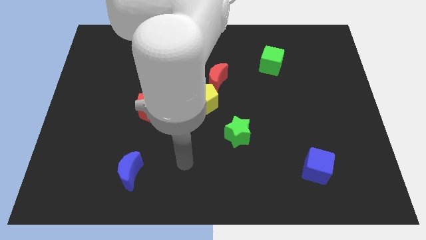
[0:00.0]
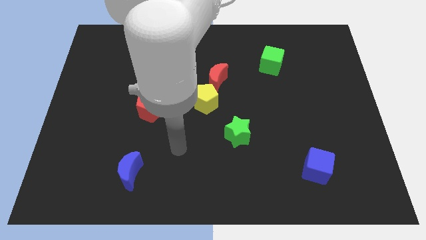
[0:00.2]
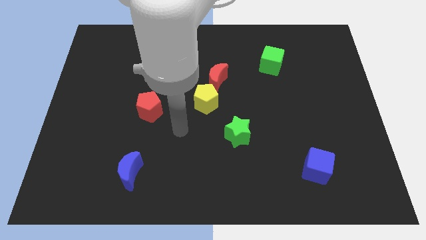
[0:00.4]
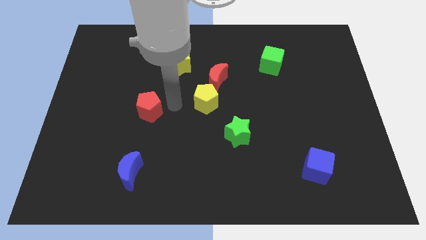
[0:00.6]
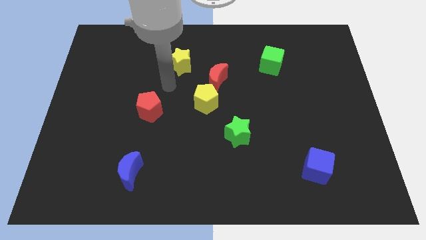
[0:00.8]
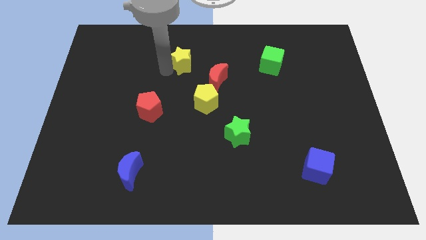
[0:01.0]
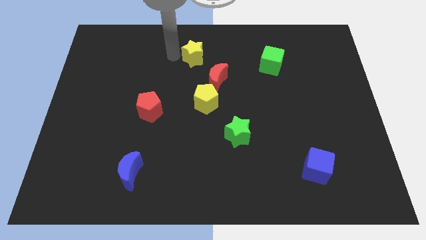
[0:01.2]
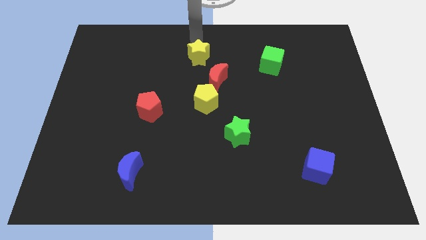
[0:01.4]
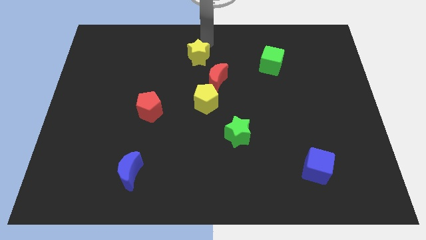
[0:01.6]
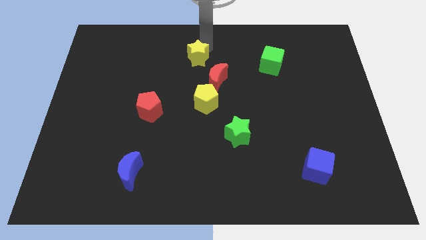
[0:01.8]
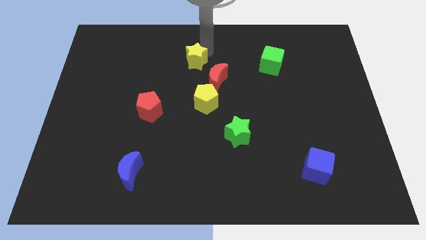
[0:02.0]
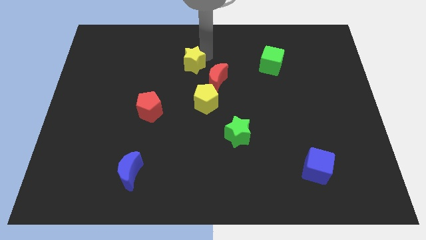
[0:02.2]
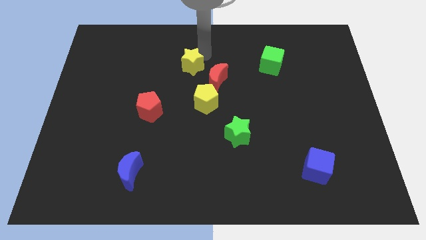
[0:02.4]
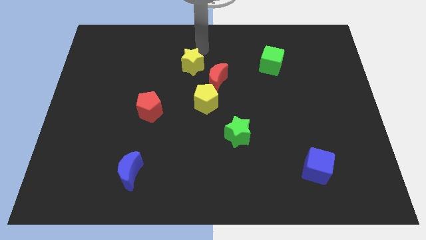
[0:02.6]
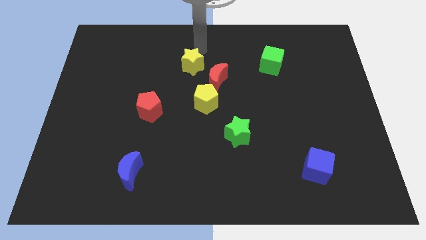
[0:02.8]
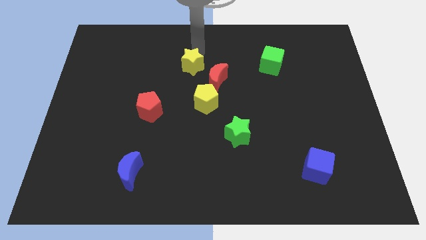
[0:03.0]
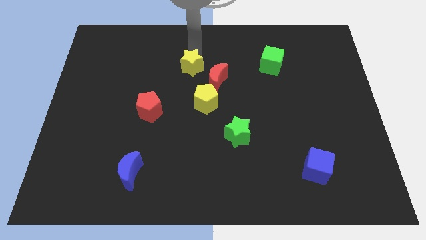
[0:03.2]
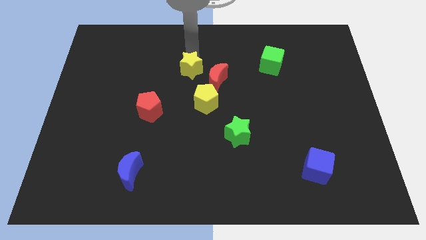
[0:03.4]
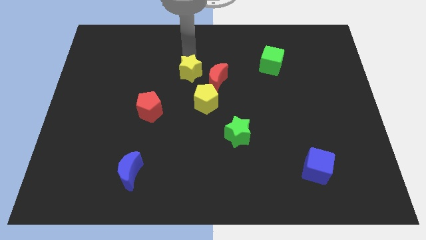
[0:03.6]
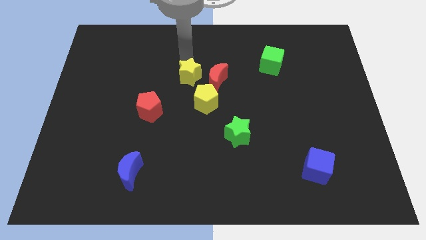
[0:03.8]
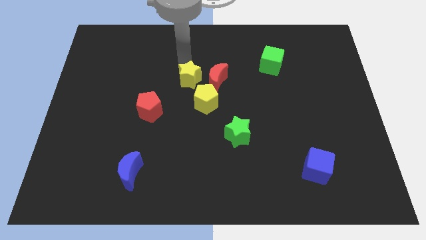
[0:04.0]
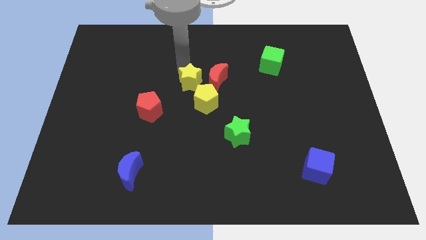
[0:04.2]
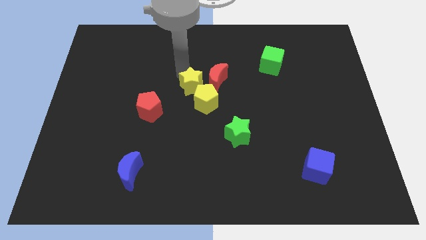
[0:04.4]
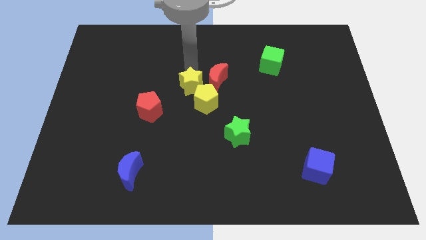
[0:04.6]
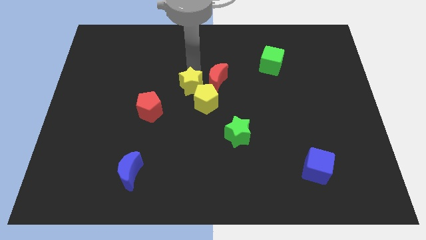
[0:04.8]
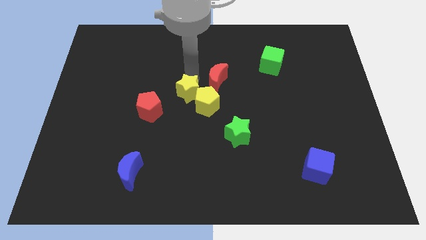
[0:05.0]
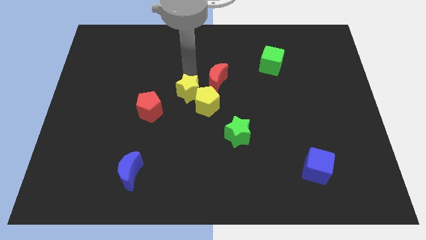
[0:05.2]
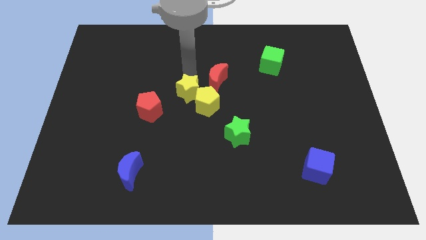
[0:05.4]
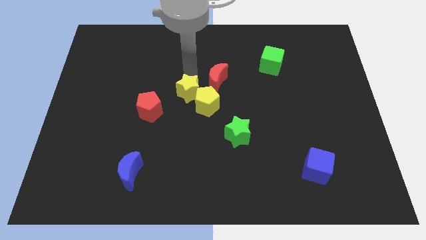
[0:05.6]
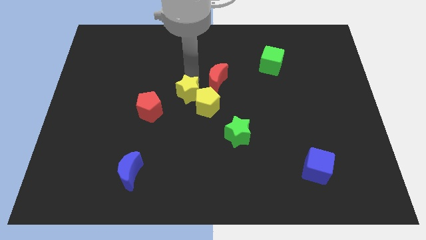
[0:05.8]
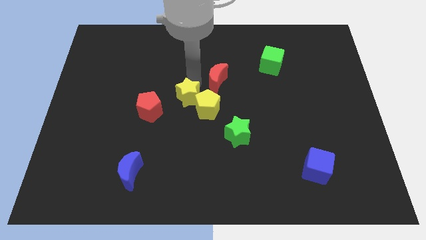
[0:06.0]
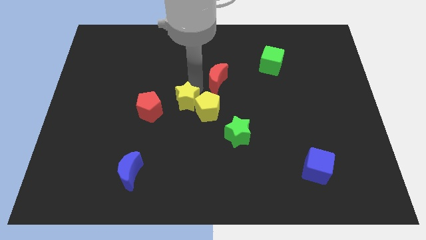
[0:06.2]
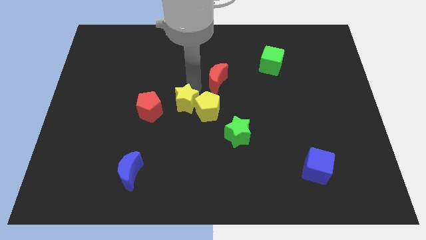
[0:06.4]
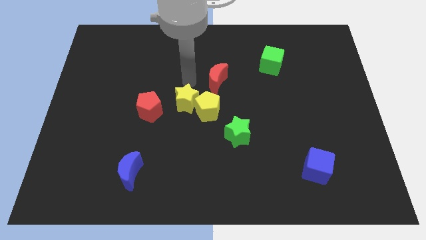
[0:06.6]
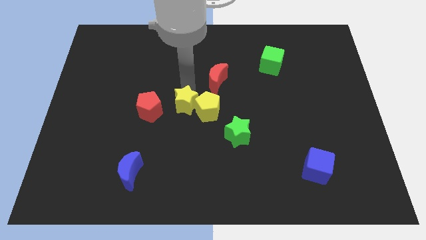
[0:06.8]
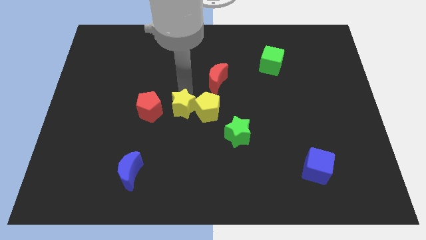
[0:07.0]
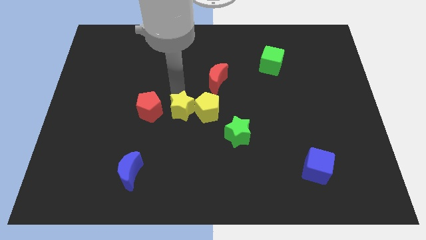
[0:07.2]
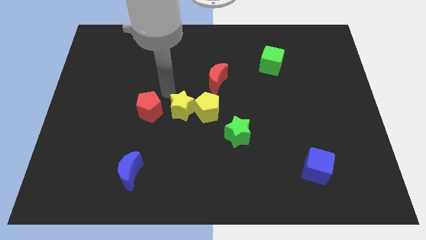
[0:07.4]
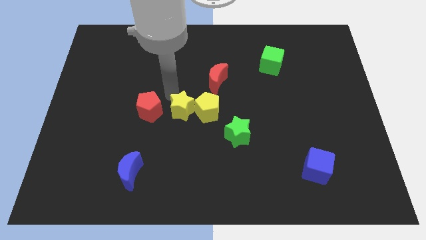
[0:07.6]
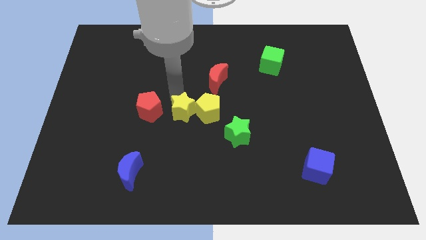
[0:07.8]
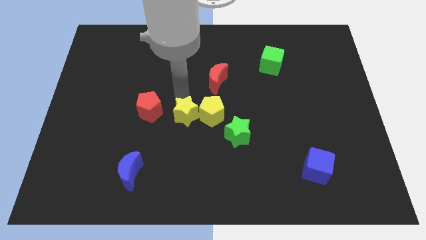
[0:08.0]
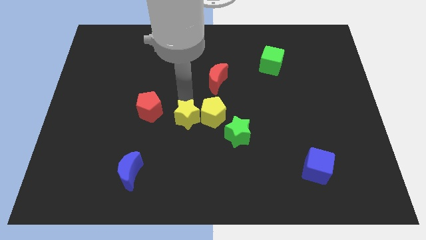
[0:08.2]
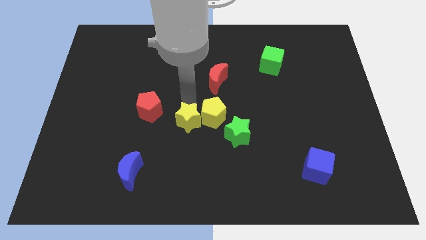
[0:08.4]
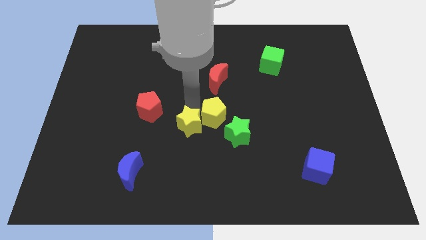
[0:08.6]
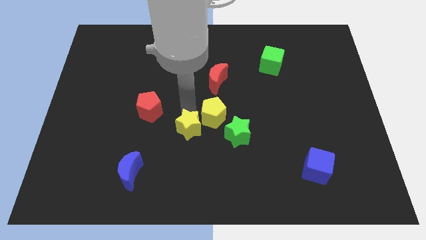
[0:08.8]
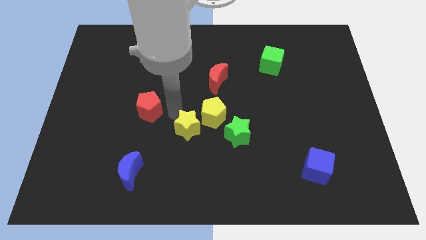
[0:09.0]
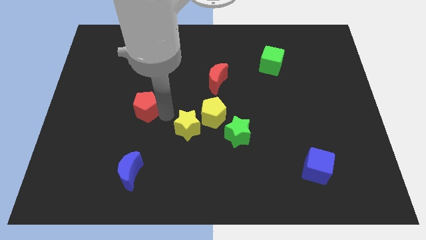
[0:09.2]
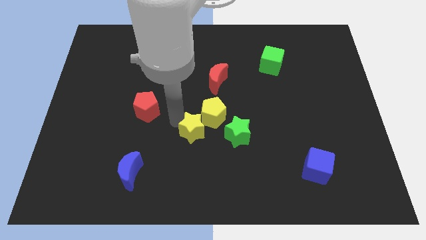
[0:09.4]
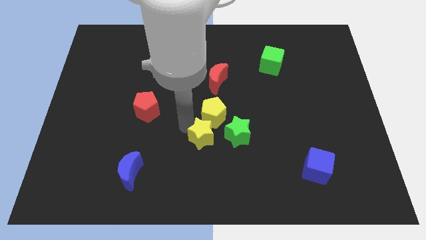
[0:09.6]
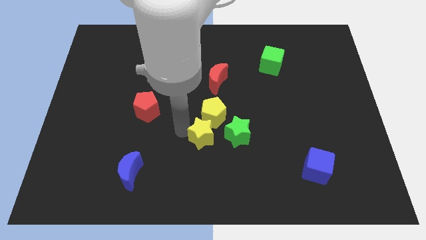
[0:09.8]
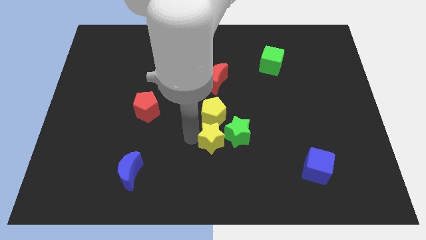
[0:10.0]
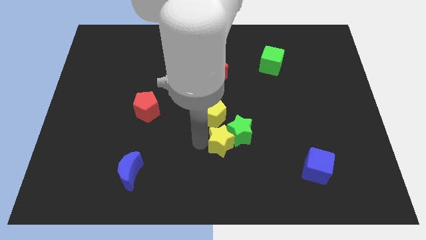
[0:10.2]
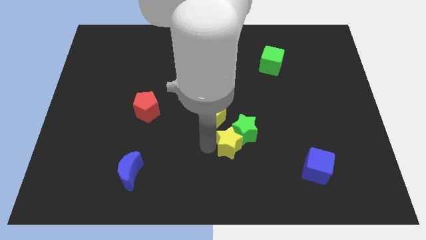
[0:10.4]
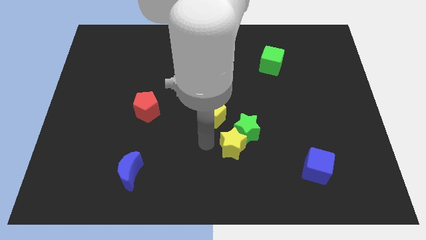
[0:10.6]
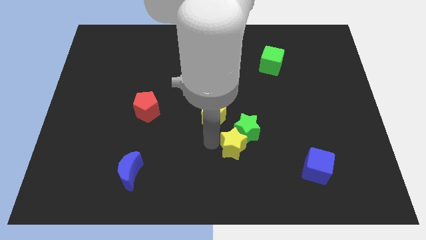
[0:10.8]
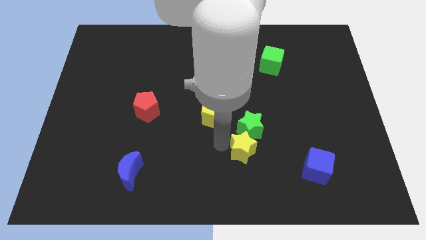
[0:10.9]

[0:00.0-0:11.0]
push the yellow star to the bottom right of the green star

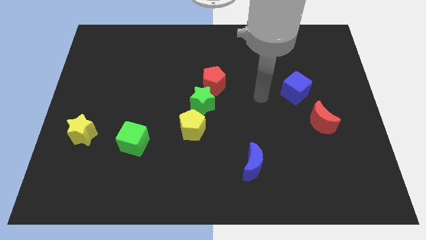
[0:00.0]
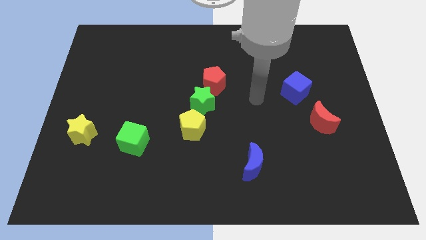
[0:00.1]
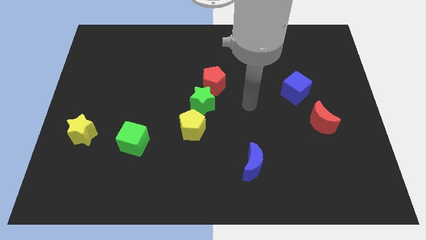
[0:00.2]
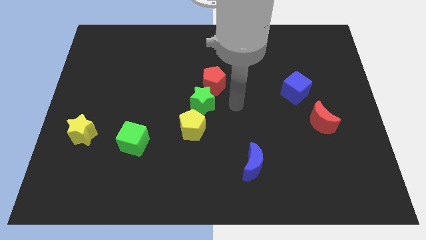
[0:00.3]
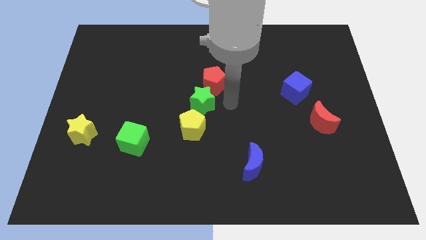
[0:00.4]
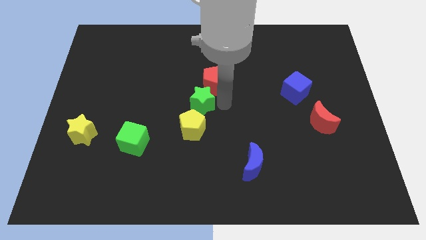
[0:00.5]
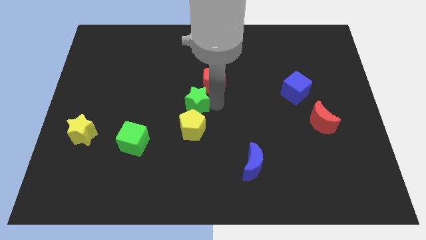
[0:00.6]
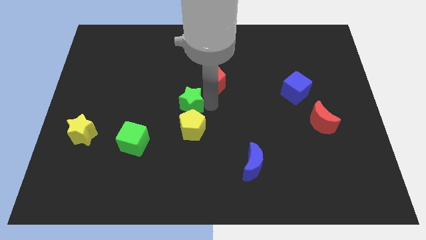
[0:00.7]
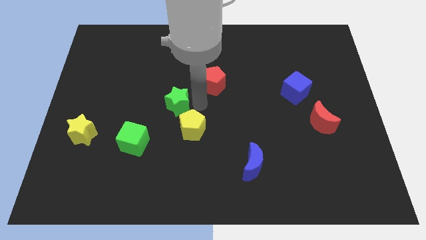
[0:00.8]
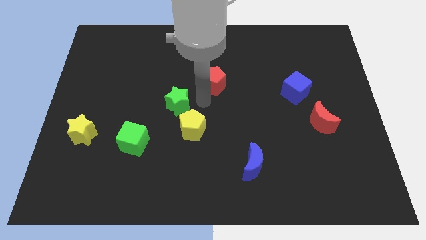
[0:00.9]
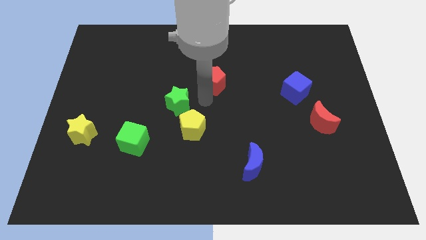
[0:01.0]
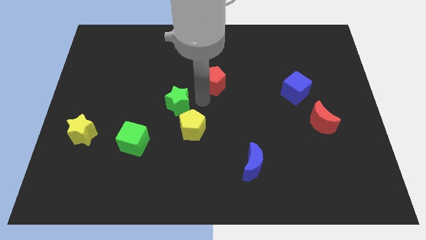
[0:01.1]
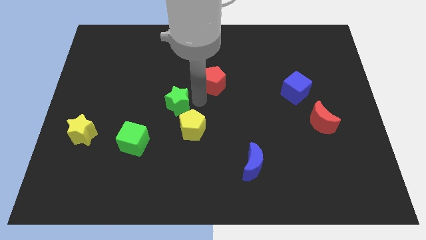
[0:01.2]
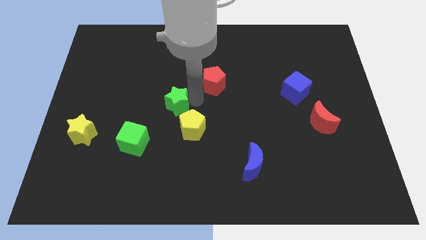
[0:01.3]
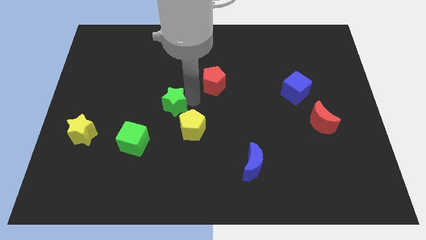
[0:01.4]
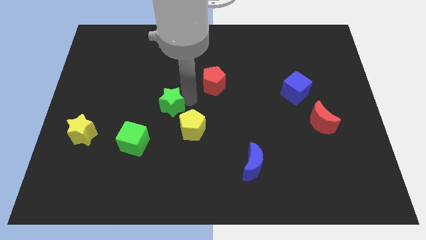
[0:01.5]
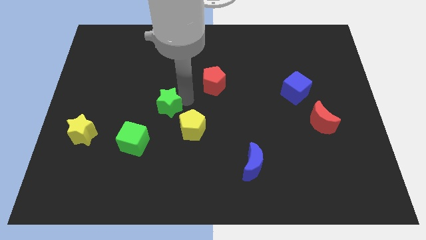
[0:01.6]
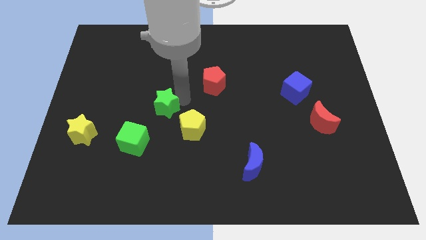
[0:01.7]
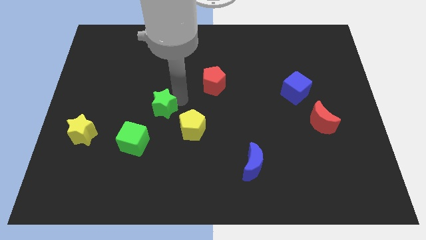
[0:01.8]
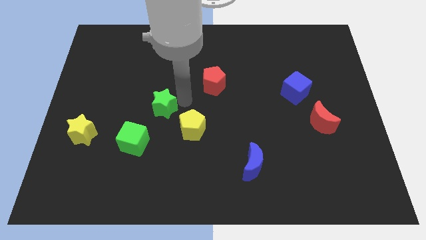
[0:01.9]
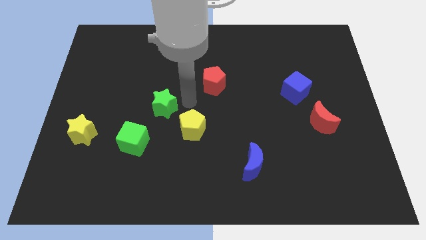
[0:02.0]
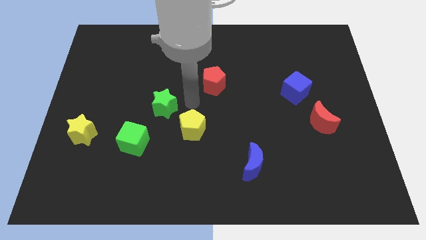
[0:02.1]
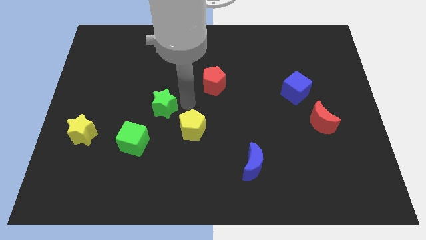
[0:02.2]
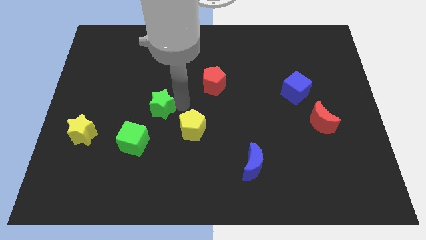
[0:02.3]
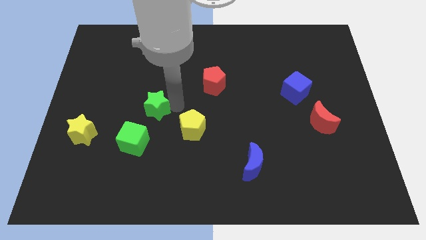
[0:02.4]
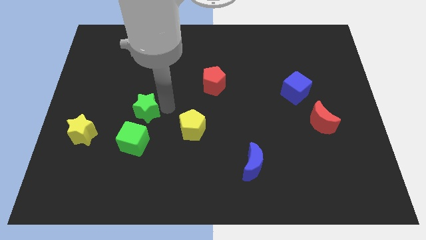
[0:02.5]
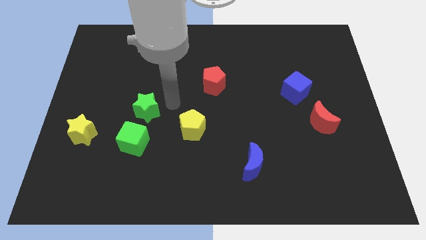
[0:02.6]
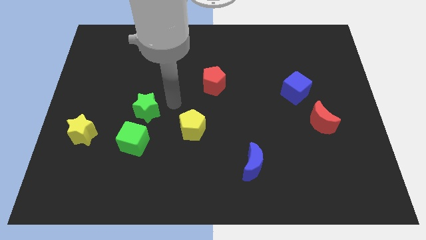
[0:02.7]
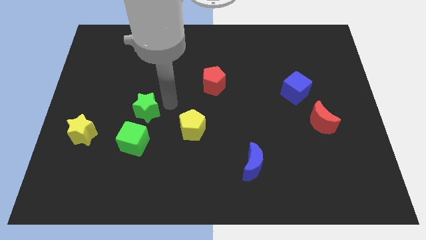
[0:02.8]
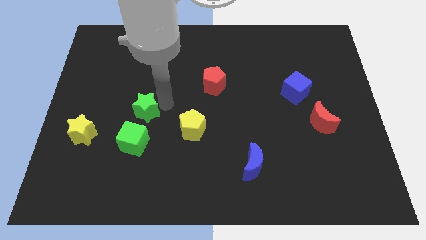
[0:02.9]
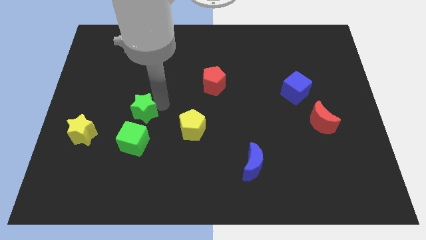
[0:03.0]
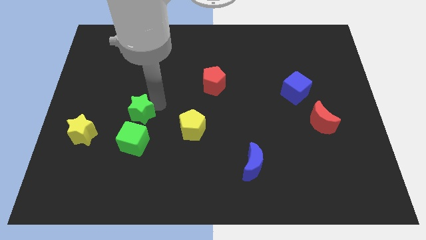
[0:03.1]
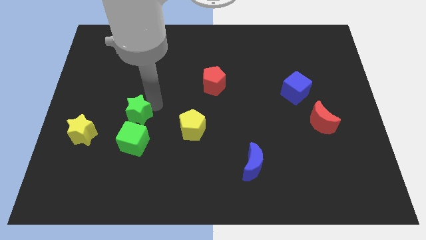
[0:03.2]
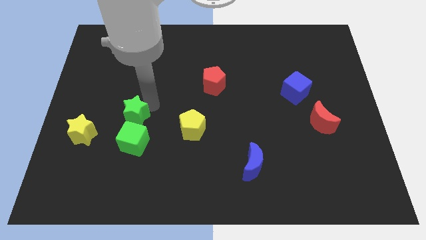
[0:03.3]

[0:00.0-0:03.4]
move the green star to the top left of the green cube
